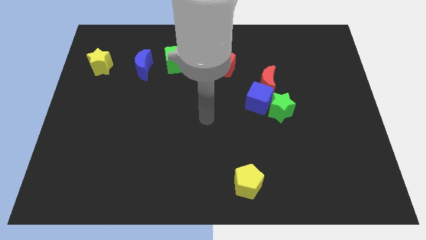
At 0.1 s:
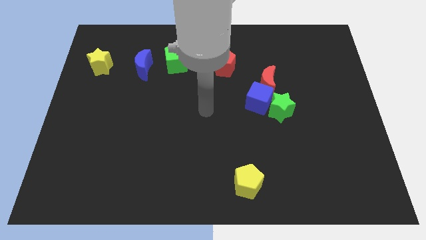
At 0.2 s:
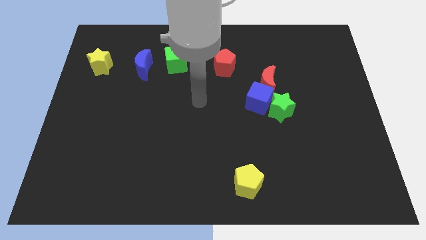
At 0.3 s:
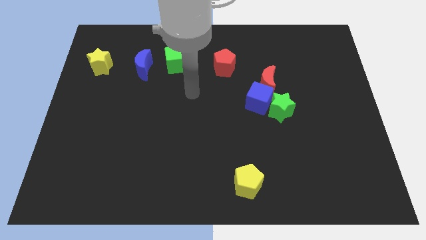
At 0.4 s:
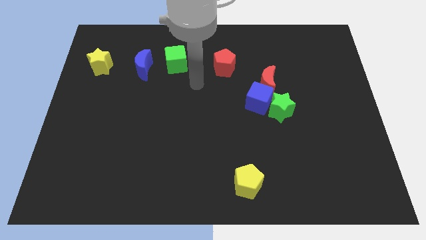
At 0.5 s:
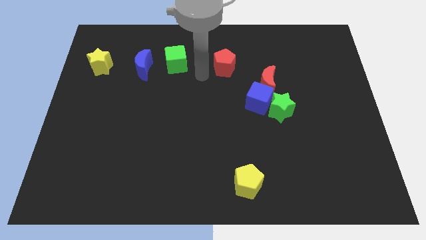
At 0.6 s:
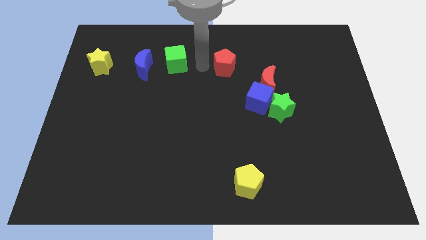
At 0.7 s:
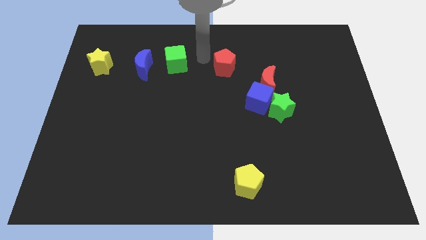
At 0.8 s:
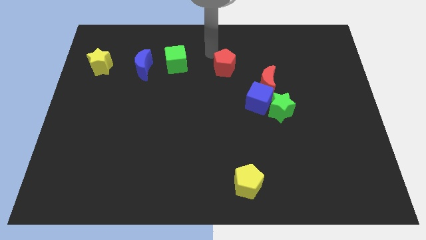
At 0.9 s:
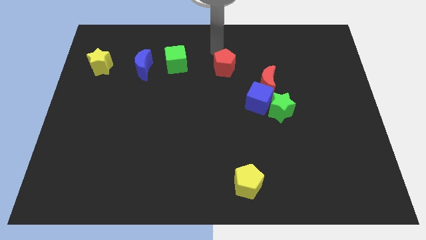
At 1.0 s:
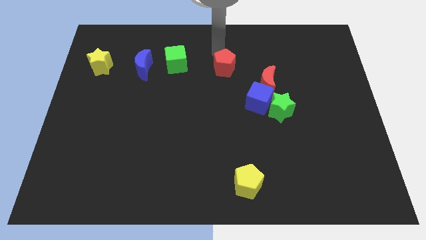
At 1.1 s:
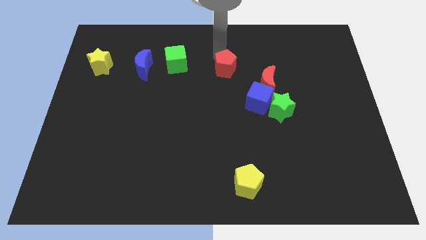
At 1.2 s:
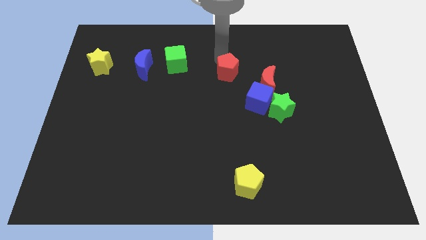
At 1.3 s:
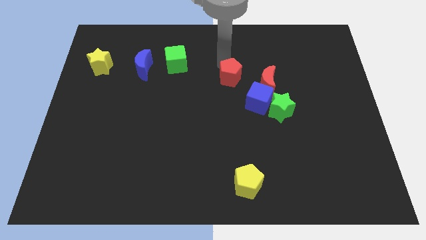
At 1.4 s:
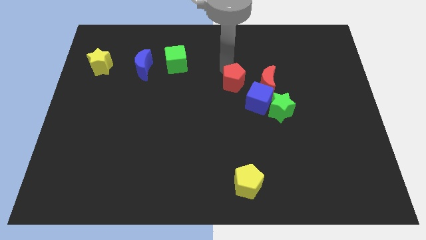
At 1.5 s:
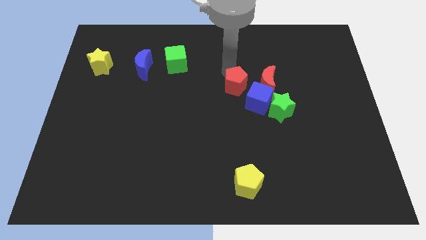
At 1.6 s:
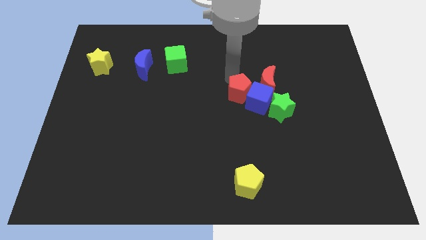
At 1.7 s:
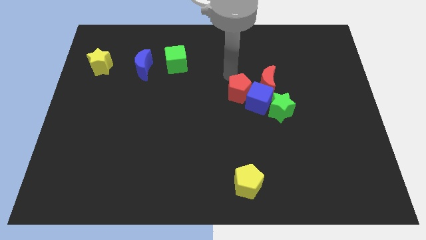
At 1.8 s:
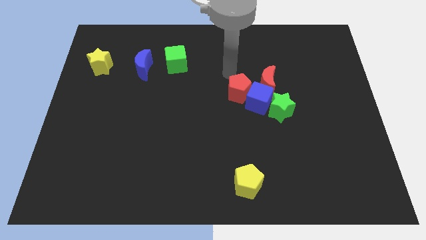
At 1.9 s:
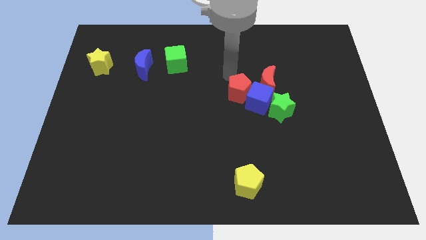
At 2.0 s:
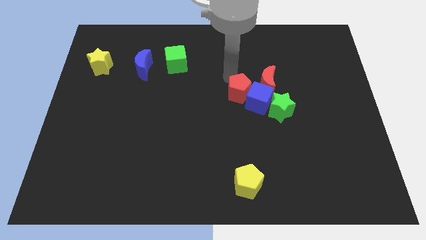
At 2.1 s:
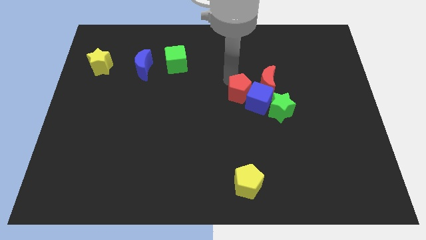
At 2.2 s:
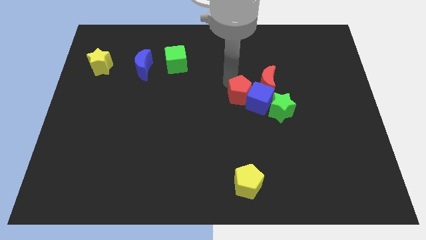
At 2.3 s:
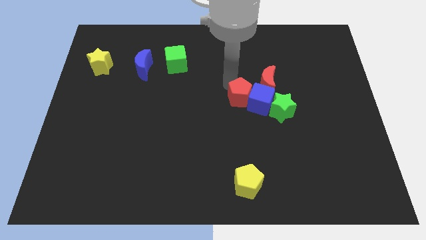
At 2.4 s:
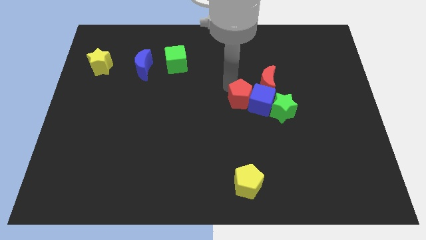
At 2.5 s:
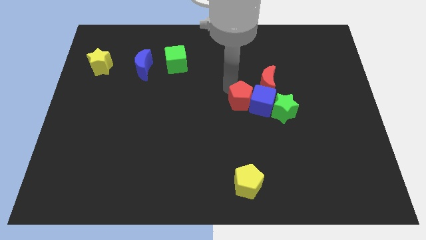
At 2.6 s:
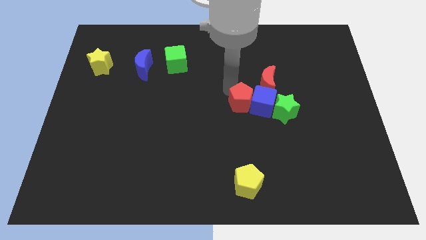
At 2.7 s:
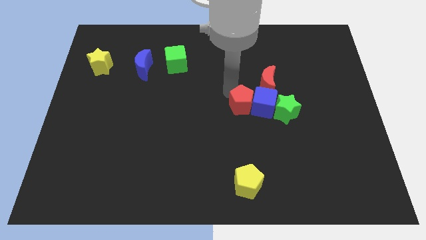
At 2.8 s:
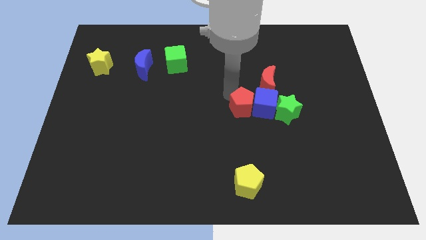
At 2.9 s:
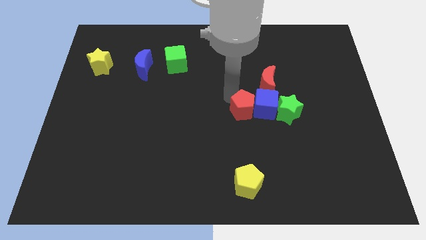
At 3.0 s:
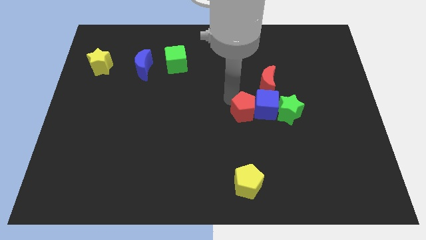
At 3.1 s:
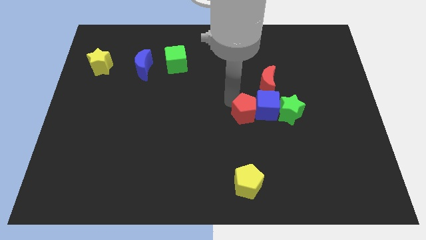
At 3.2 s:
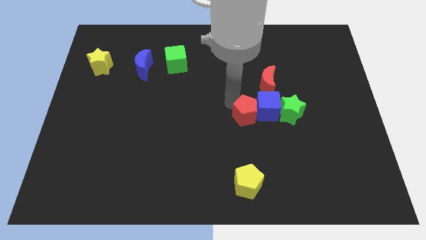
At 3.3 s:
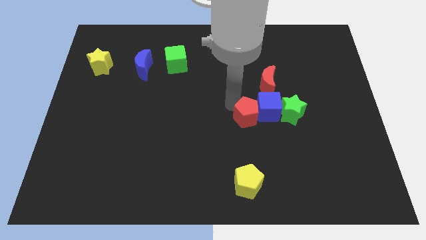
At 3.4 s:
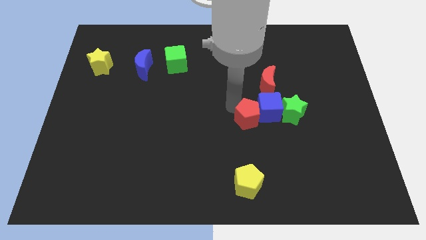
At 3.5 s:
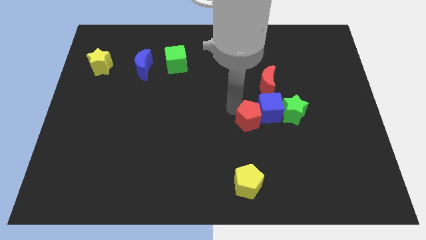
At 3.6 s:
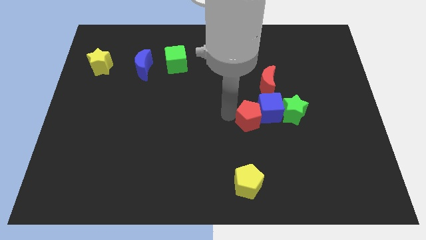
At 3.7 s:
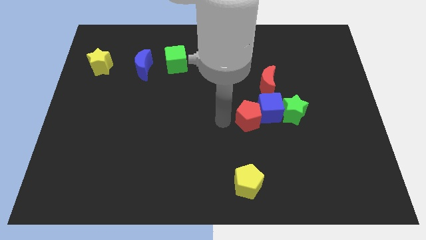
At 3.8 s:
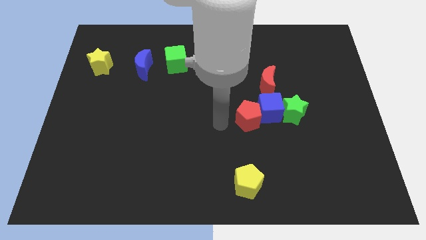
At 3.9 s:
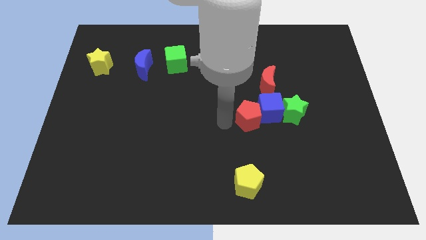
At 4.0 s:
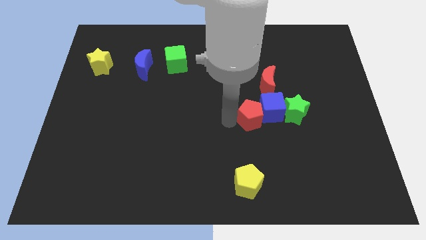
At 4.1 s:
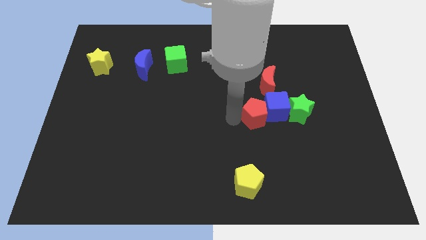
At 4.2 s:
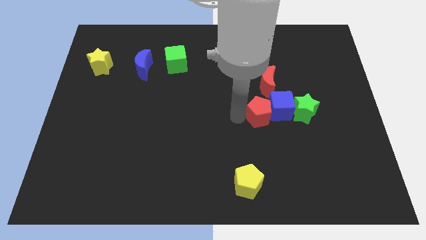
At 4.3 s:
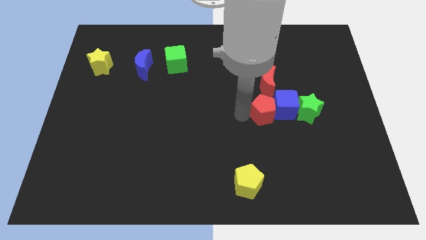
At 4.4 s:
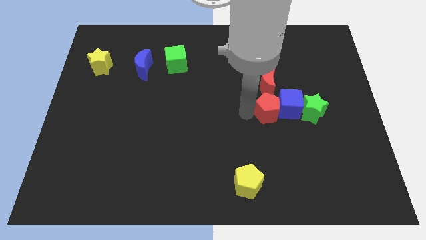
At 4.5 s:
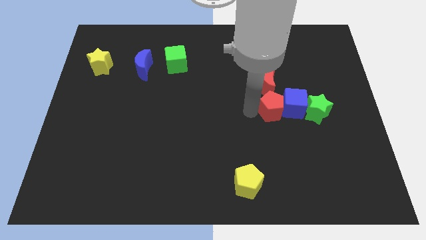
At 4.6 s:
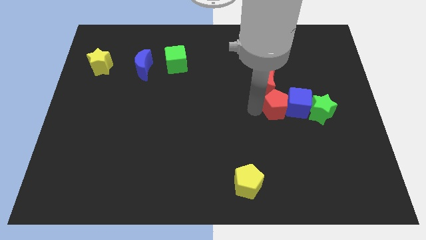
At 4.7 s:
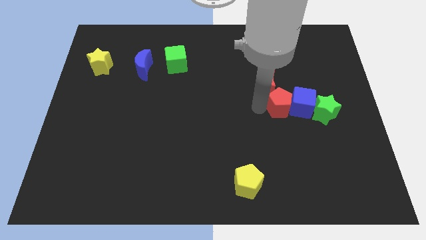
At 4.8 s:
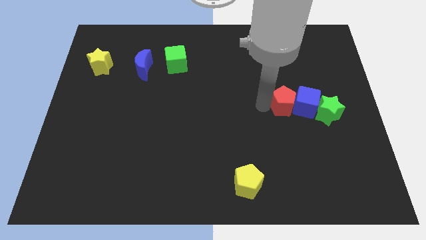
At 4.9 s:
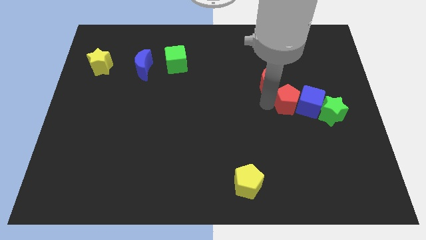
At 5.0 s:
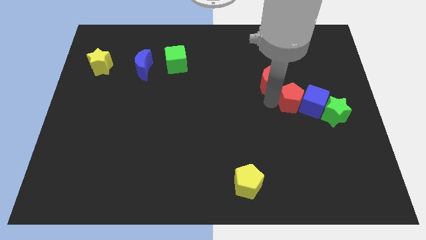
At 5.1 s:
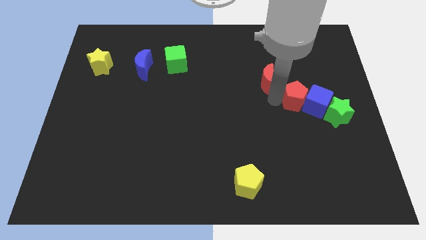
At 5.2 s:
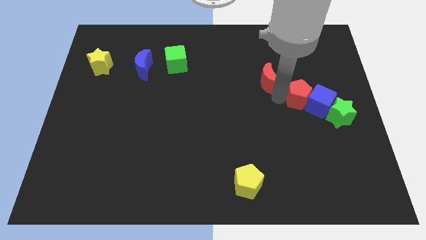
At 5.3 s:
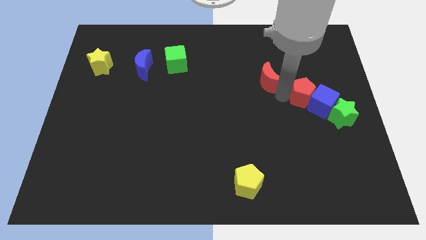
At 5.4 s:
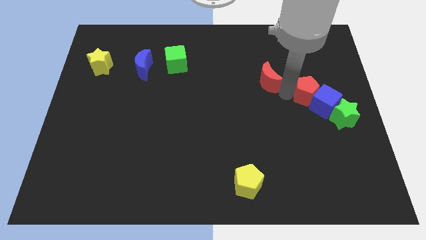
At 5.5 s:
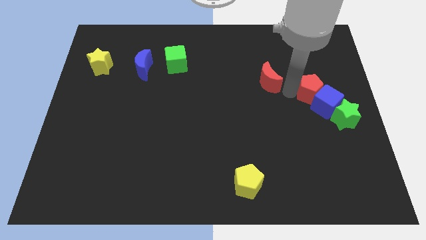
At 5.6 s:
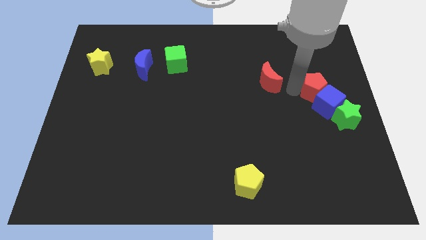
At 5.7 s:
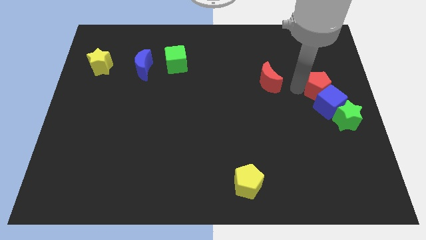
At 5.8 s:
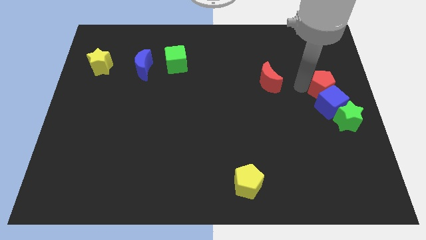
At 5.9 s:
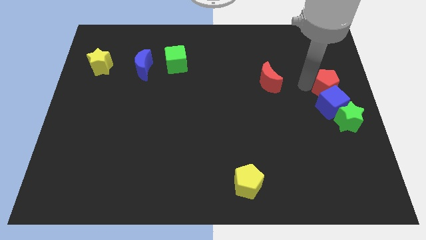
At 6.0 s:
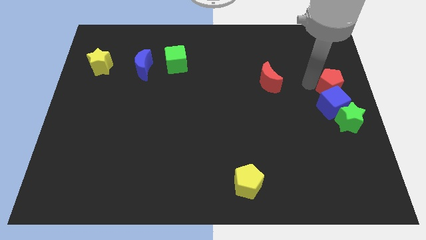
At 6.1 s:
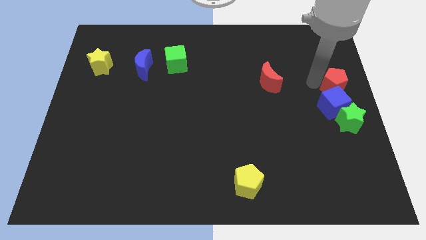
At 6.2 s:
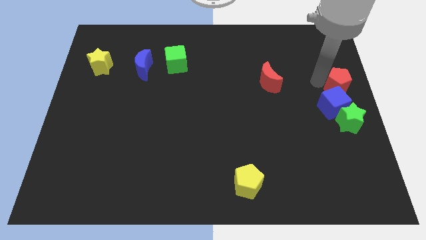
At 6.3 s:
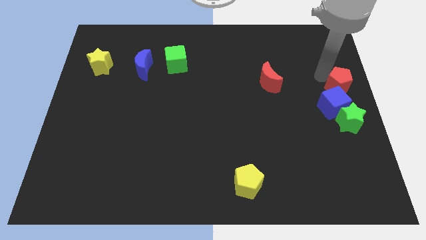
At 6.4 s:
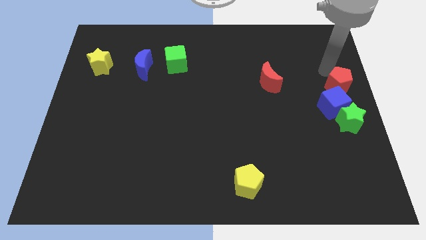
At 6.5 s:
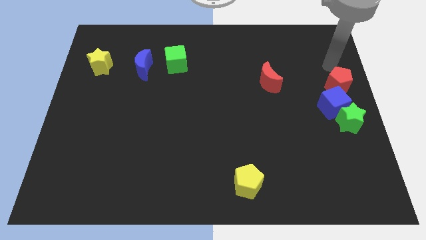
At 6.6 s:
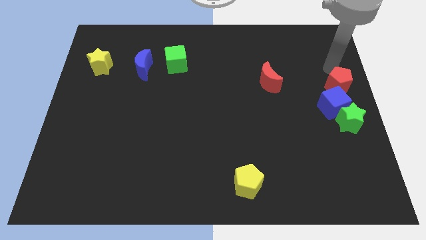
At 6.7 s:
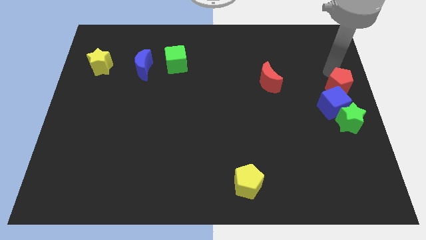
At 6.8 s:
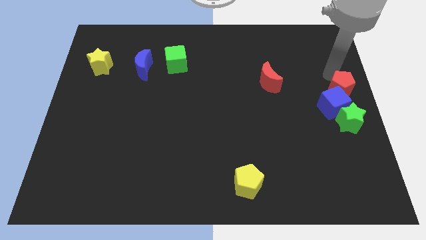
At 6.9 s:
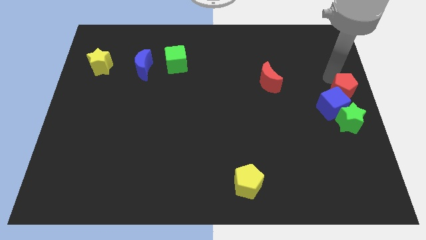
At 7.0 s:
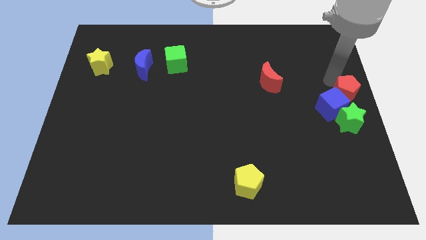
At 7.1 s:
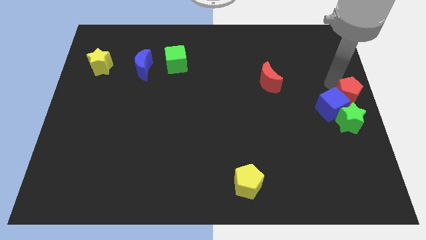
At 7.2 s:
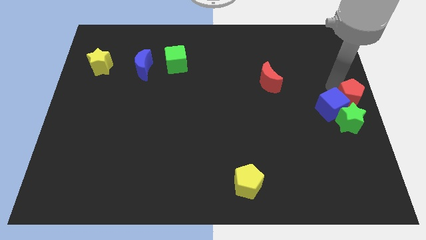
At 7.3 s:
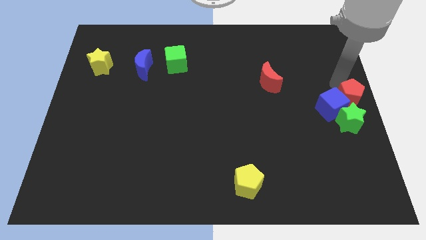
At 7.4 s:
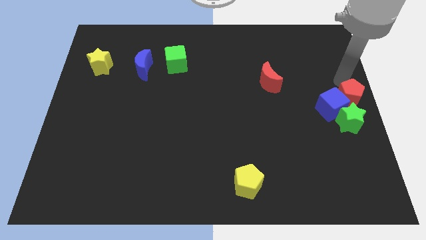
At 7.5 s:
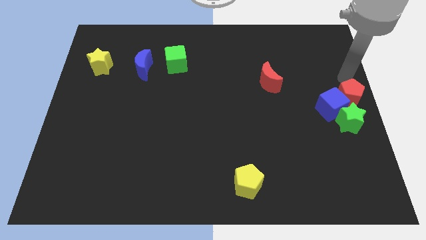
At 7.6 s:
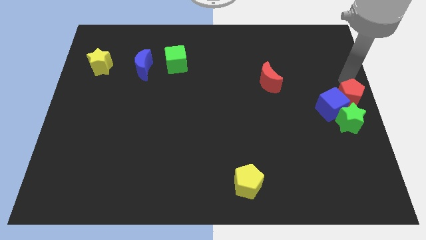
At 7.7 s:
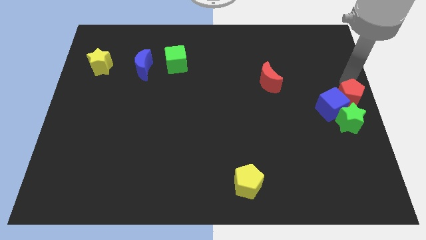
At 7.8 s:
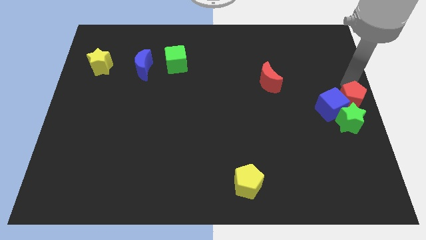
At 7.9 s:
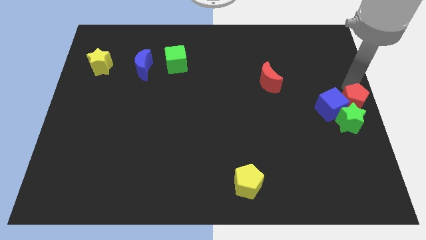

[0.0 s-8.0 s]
put the red pentagon towards the green star

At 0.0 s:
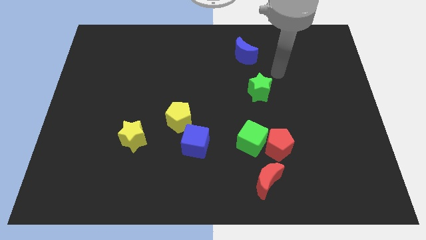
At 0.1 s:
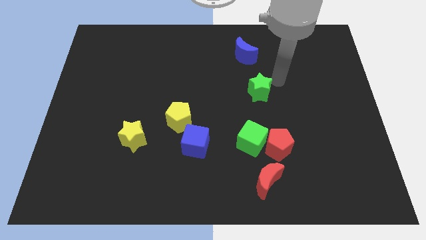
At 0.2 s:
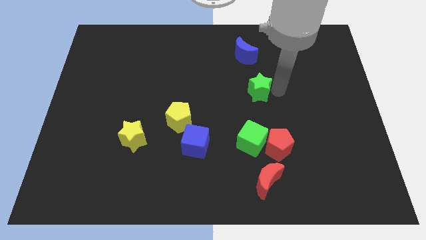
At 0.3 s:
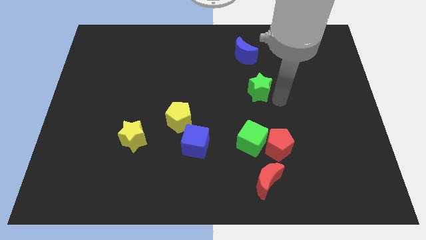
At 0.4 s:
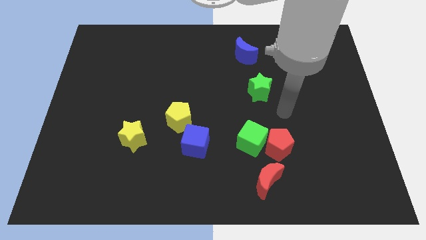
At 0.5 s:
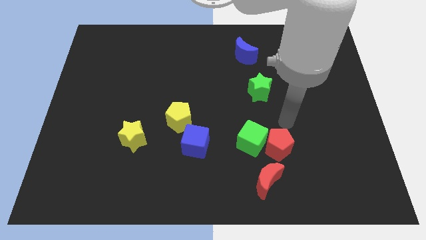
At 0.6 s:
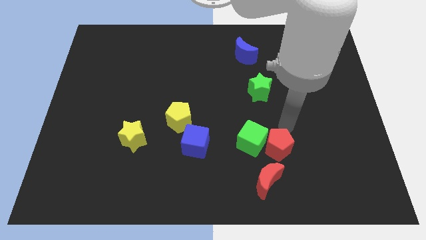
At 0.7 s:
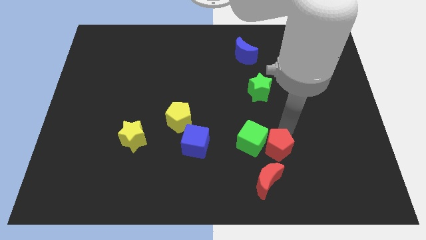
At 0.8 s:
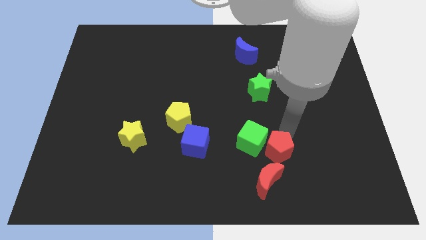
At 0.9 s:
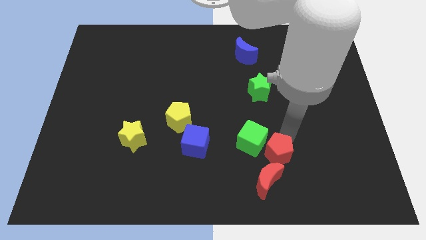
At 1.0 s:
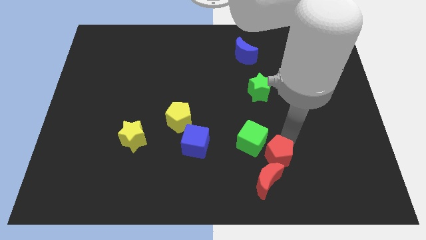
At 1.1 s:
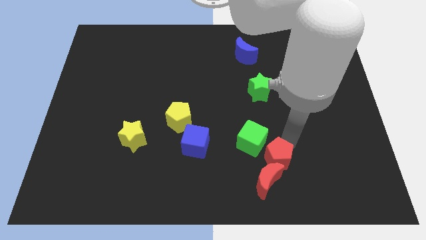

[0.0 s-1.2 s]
move the red pentagon to the red moon
